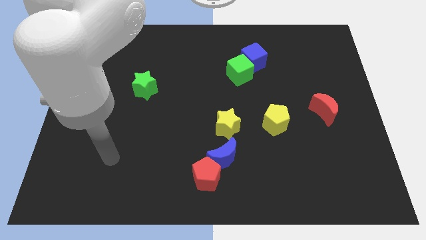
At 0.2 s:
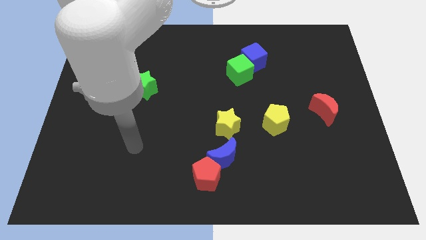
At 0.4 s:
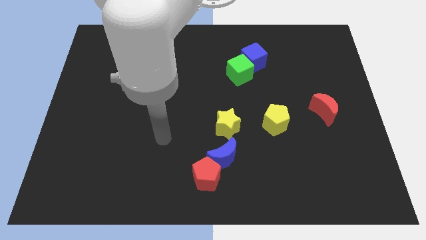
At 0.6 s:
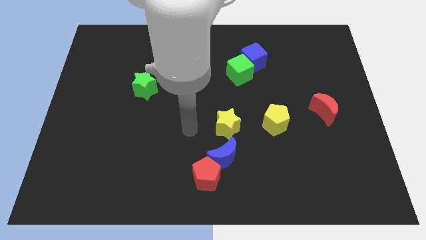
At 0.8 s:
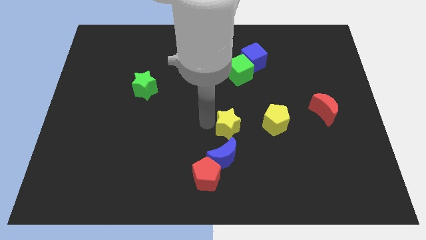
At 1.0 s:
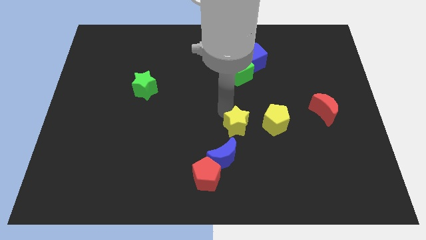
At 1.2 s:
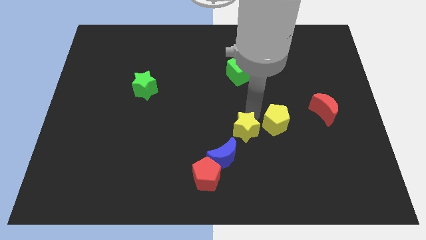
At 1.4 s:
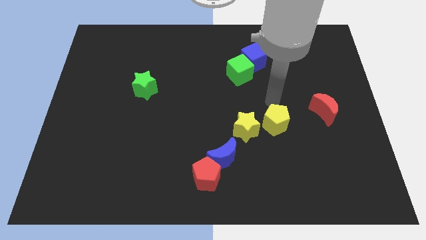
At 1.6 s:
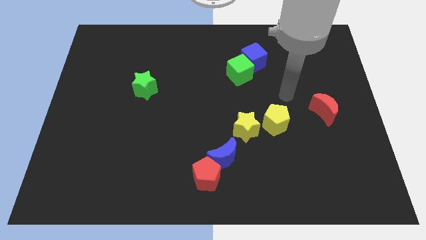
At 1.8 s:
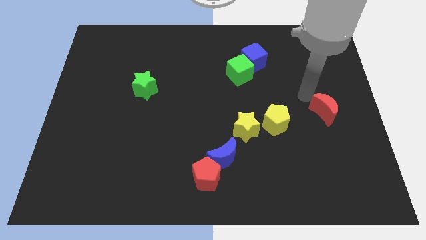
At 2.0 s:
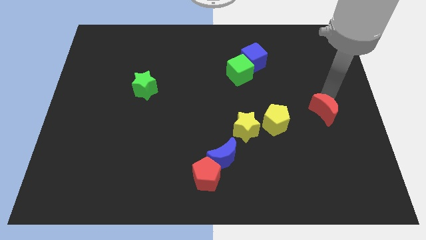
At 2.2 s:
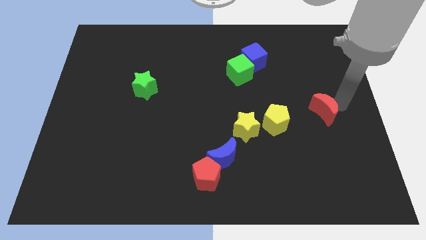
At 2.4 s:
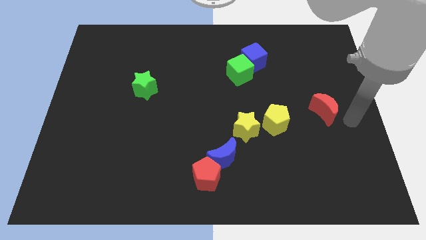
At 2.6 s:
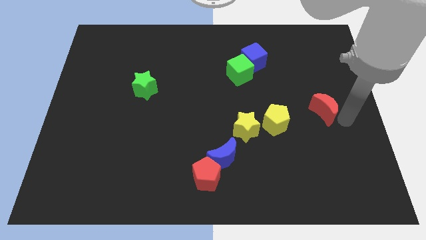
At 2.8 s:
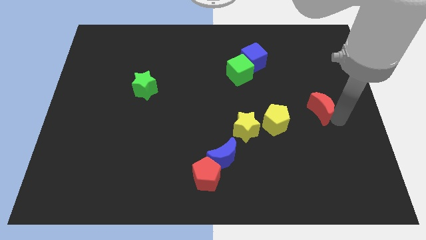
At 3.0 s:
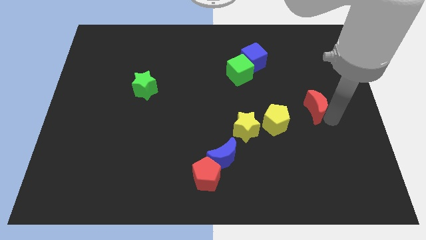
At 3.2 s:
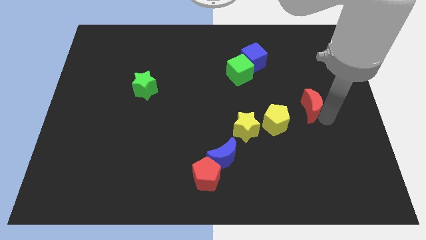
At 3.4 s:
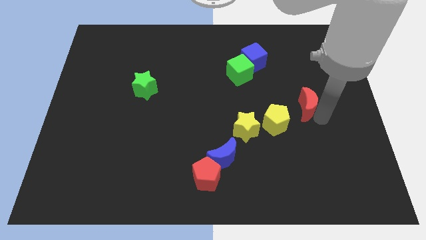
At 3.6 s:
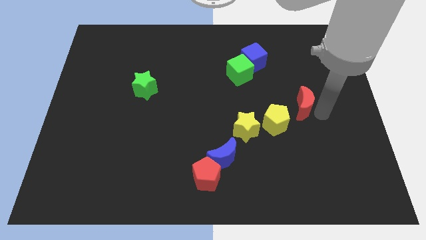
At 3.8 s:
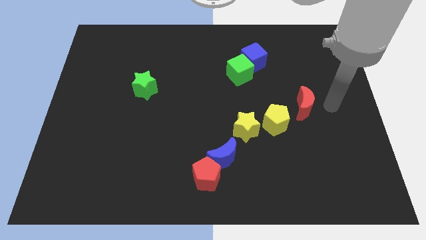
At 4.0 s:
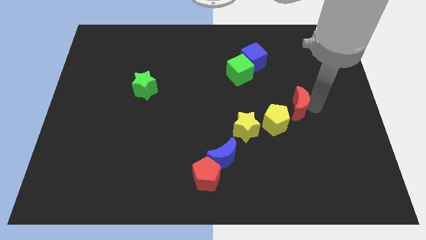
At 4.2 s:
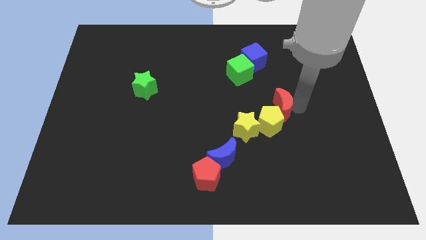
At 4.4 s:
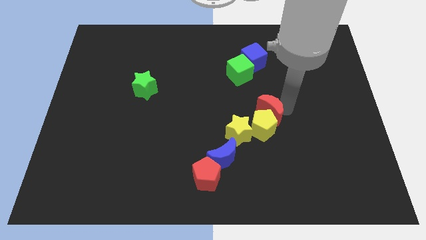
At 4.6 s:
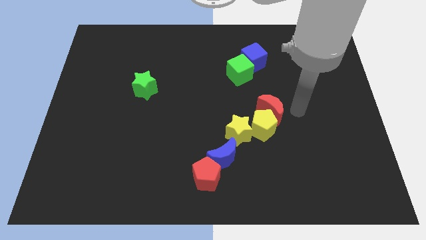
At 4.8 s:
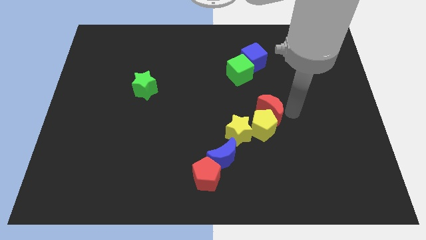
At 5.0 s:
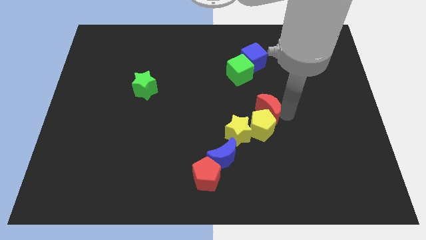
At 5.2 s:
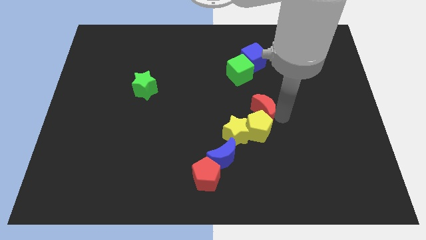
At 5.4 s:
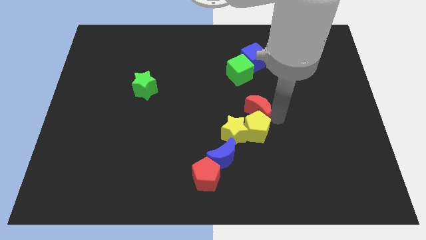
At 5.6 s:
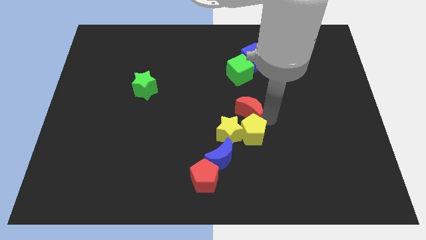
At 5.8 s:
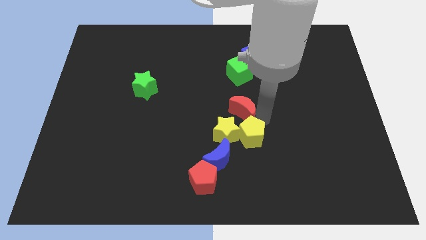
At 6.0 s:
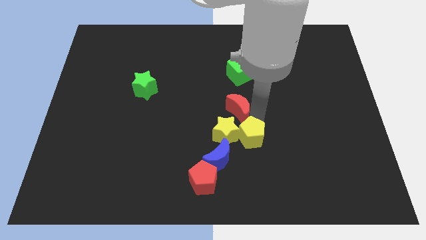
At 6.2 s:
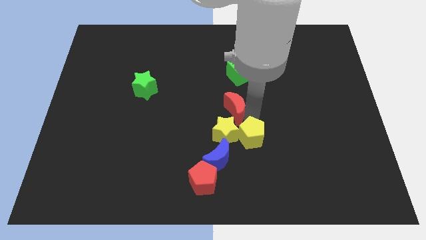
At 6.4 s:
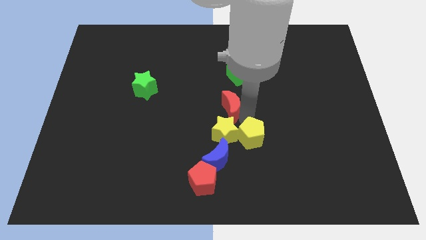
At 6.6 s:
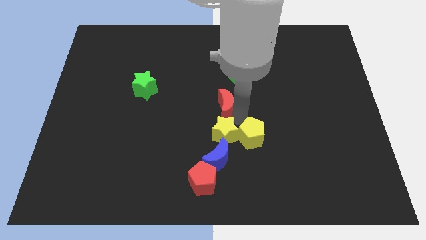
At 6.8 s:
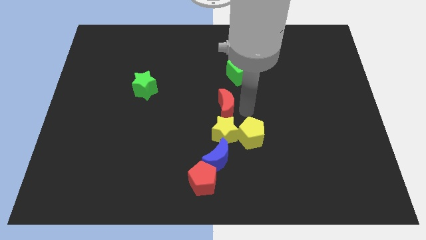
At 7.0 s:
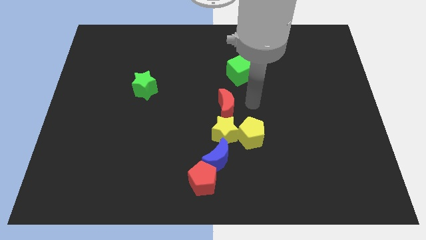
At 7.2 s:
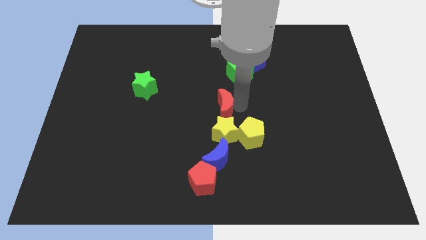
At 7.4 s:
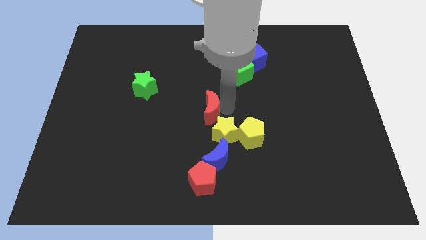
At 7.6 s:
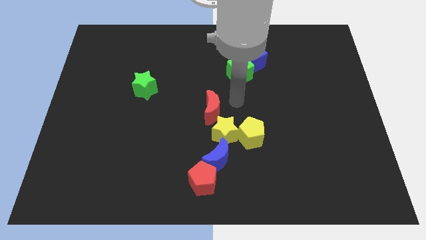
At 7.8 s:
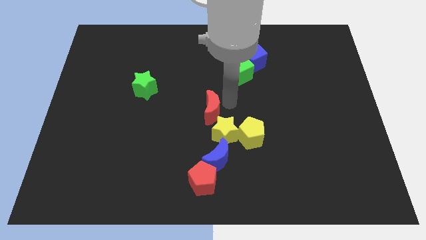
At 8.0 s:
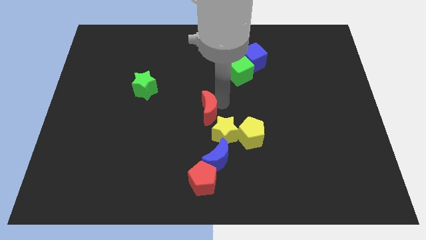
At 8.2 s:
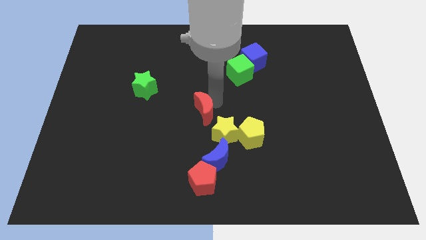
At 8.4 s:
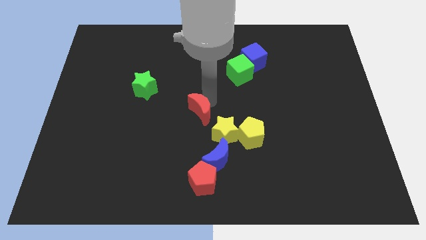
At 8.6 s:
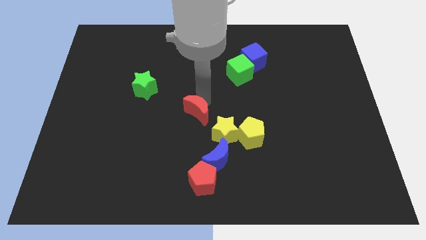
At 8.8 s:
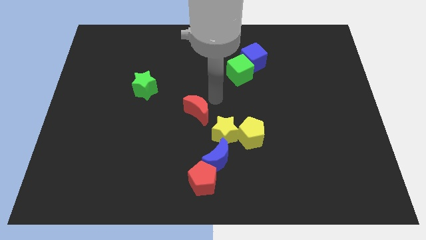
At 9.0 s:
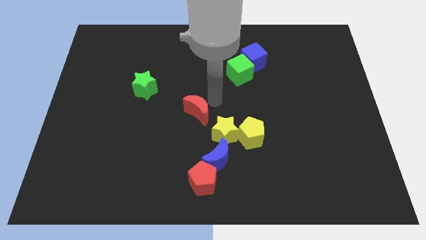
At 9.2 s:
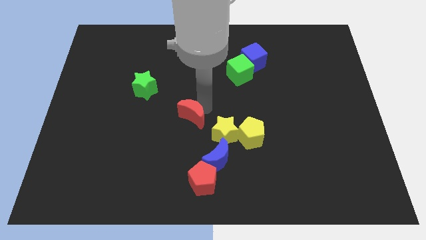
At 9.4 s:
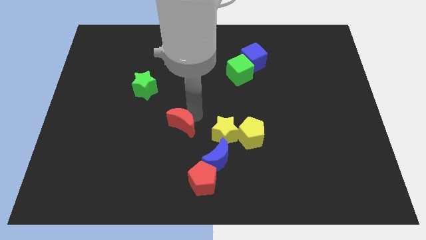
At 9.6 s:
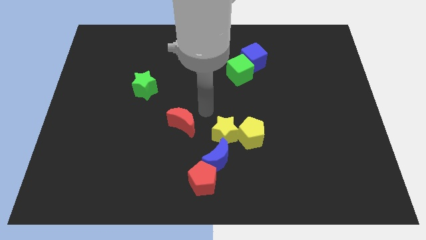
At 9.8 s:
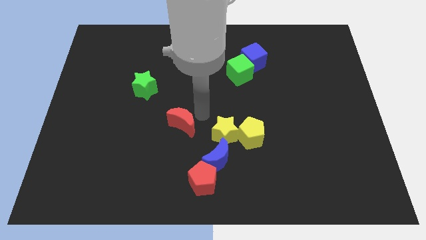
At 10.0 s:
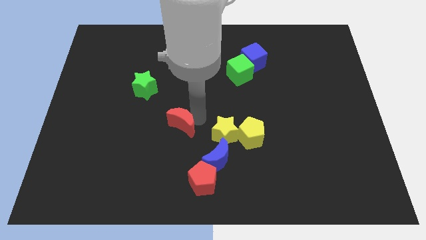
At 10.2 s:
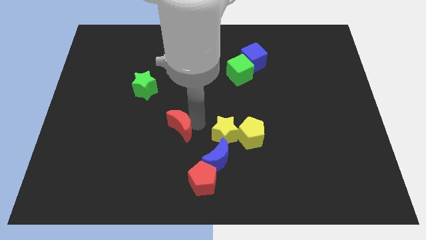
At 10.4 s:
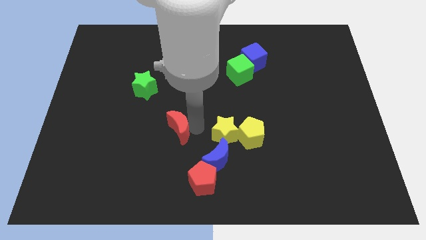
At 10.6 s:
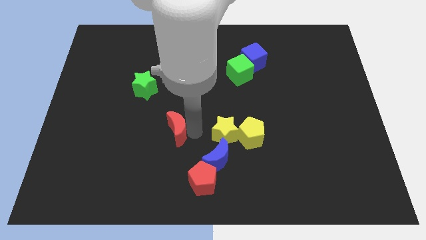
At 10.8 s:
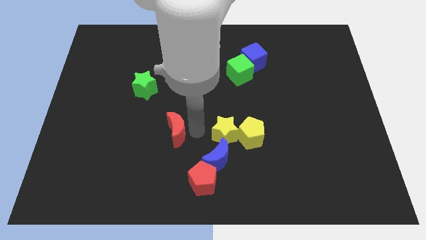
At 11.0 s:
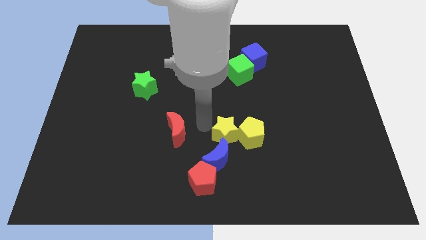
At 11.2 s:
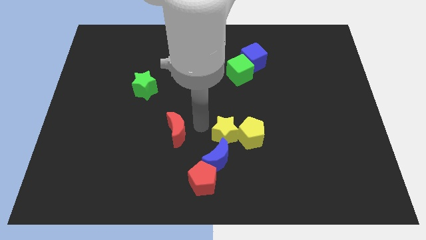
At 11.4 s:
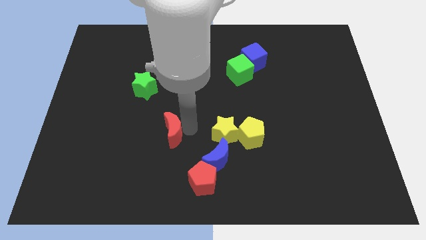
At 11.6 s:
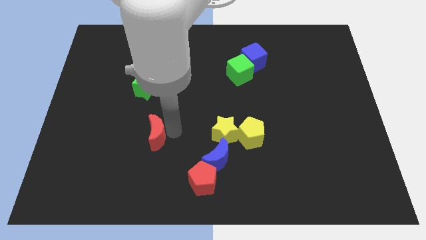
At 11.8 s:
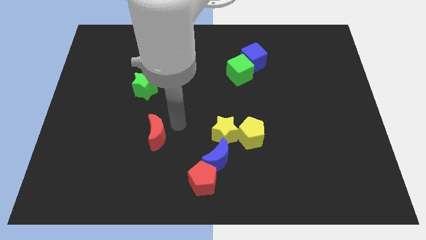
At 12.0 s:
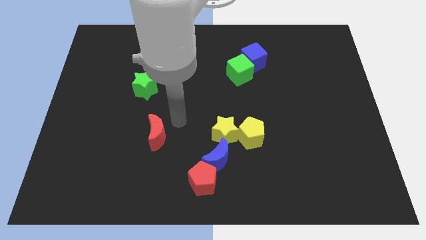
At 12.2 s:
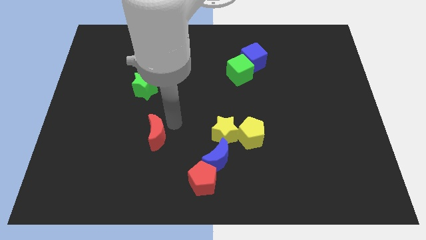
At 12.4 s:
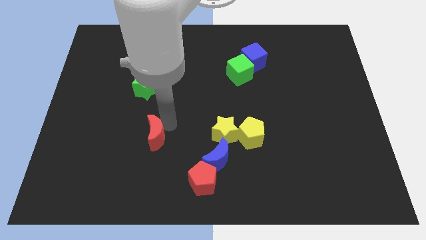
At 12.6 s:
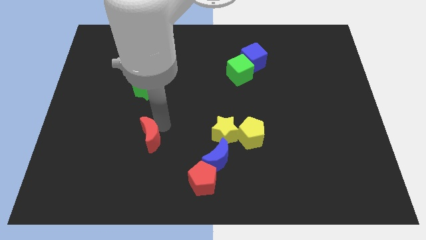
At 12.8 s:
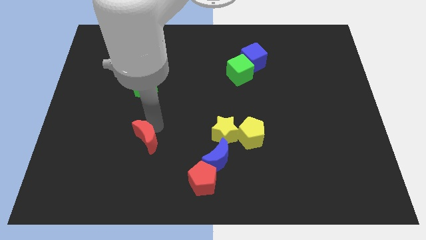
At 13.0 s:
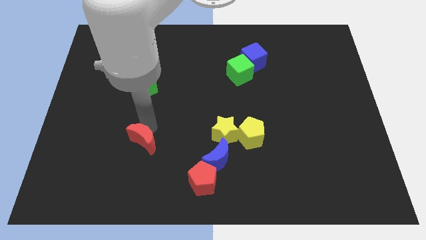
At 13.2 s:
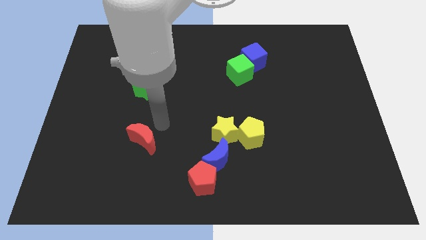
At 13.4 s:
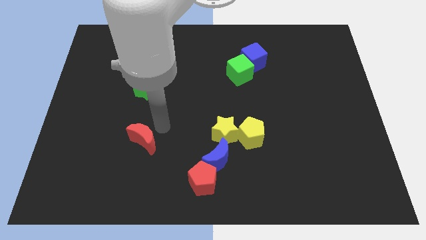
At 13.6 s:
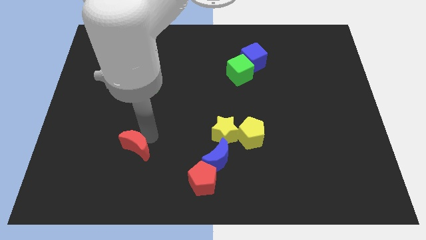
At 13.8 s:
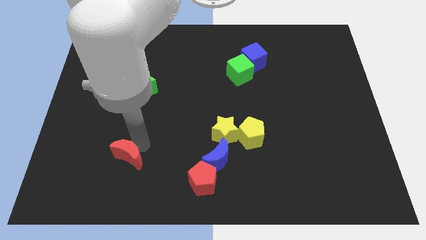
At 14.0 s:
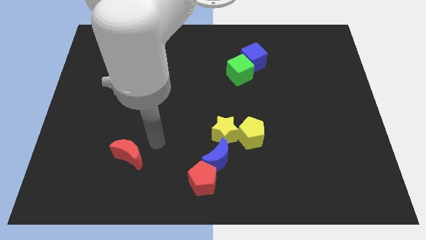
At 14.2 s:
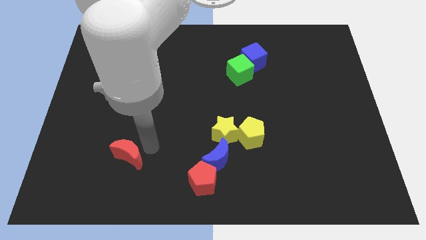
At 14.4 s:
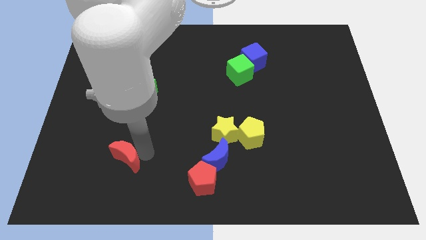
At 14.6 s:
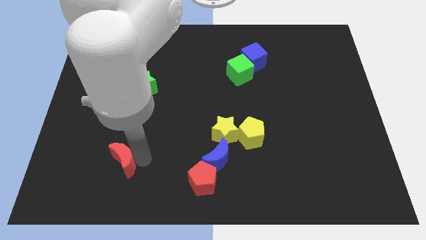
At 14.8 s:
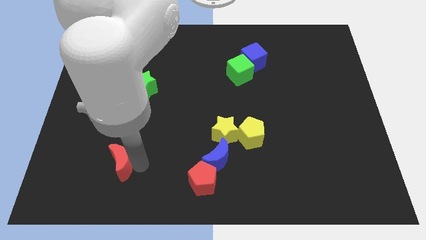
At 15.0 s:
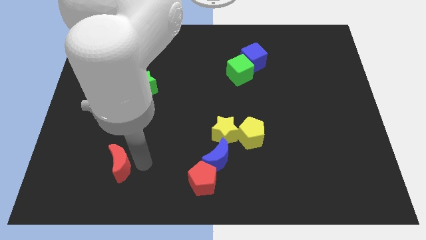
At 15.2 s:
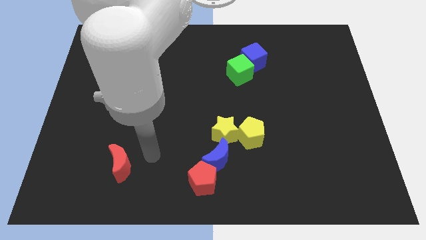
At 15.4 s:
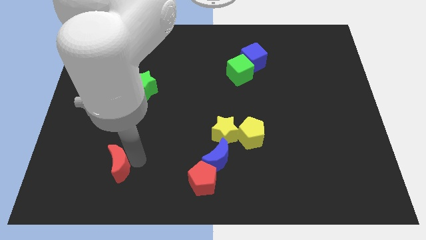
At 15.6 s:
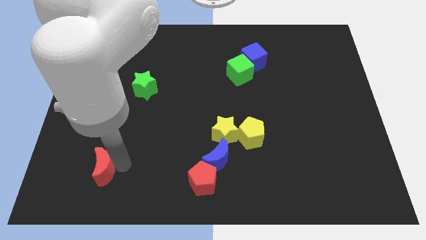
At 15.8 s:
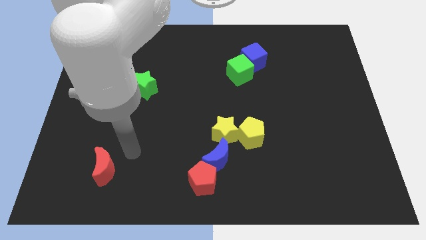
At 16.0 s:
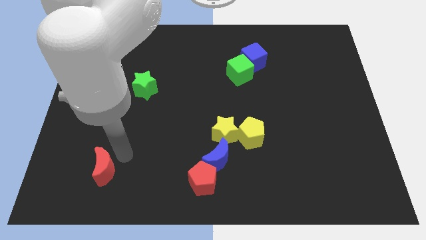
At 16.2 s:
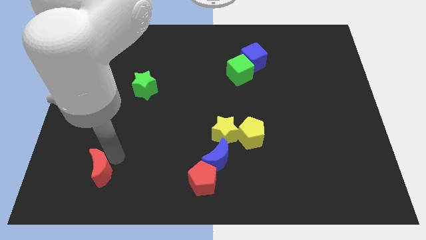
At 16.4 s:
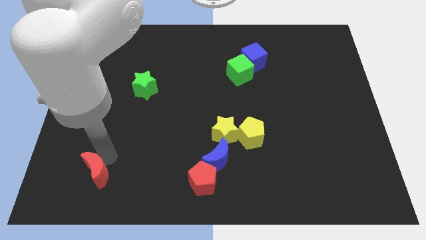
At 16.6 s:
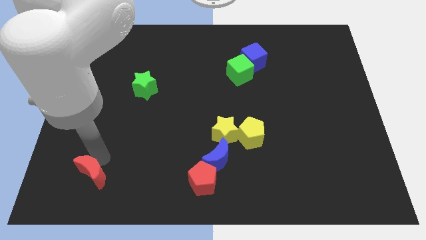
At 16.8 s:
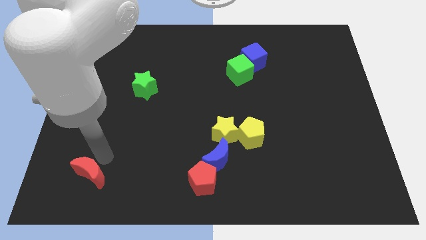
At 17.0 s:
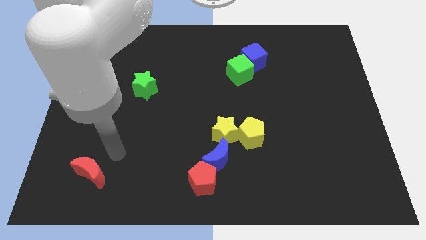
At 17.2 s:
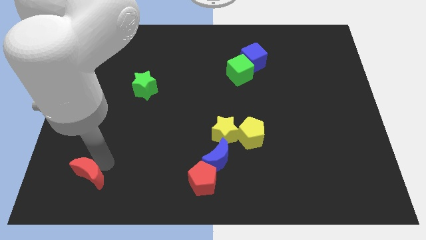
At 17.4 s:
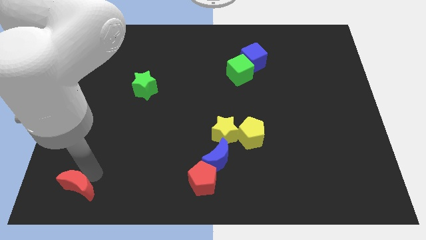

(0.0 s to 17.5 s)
slide the red moon to the bottom left corner
